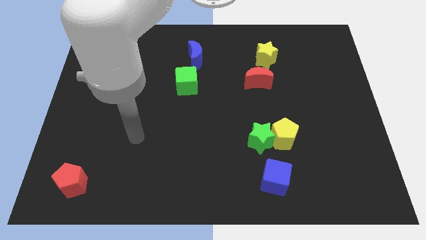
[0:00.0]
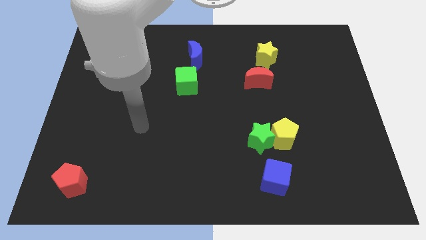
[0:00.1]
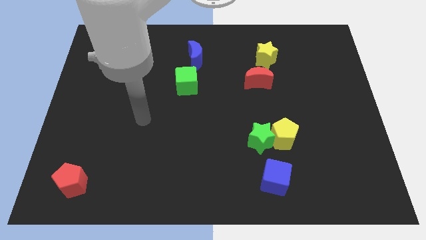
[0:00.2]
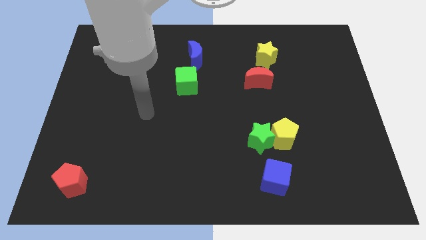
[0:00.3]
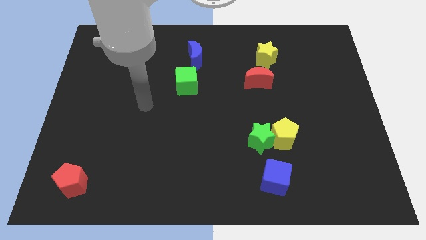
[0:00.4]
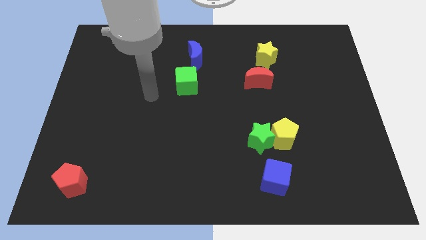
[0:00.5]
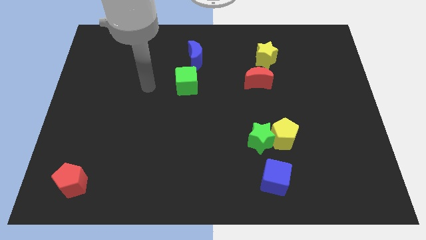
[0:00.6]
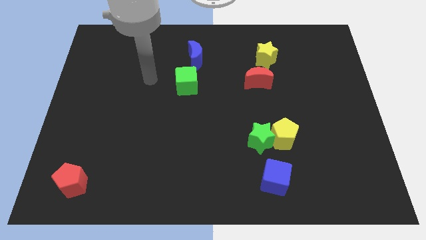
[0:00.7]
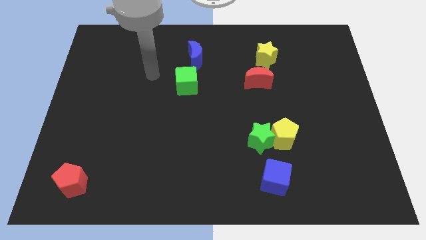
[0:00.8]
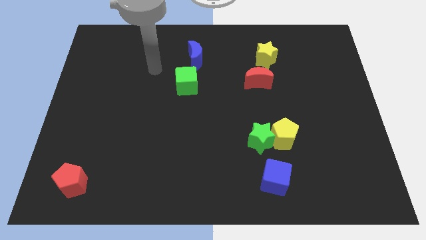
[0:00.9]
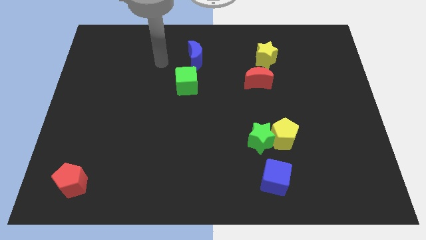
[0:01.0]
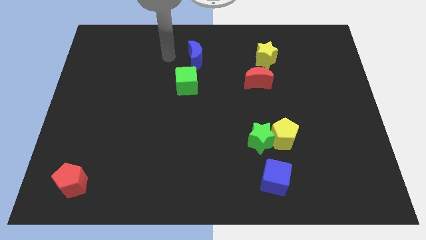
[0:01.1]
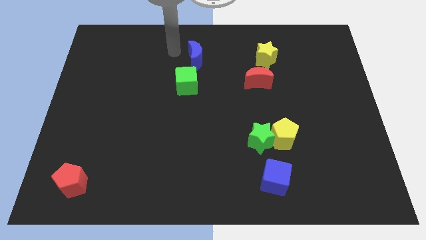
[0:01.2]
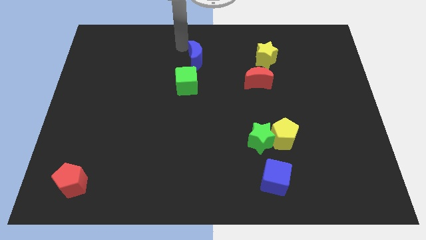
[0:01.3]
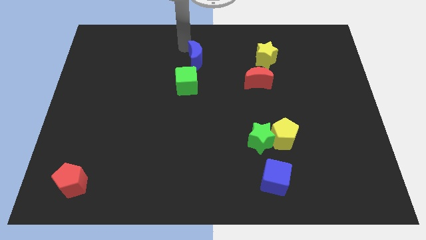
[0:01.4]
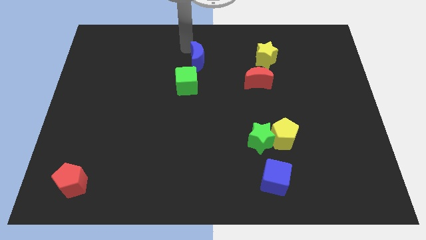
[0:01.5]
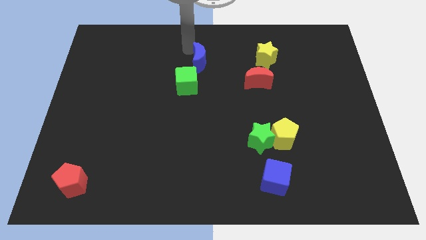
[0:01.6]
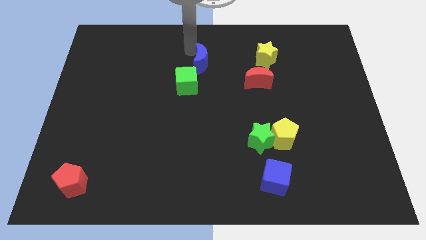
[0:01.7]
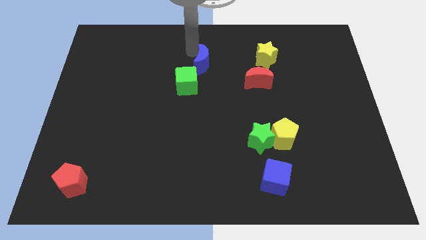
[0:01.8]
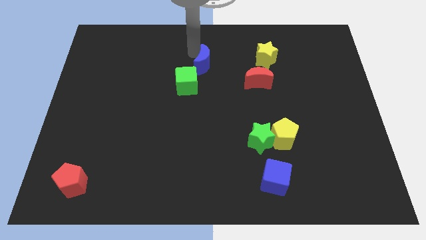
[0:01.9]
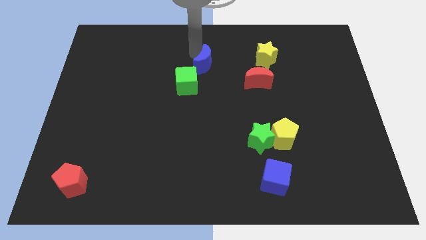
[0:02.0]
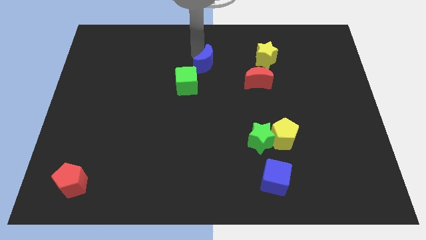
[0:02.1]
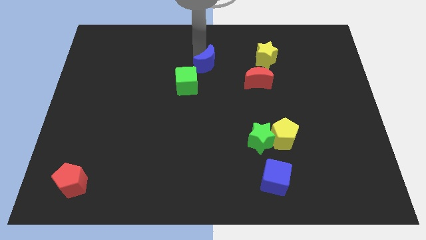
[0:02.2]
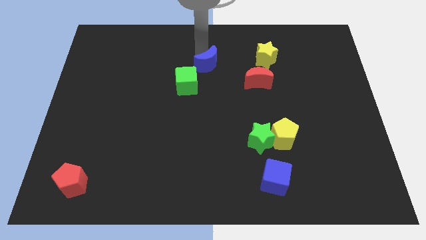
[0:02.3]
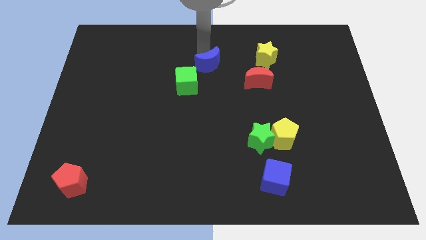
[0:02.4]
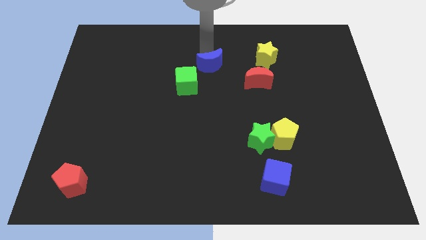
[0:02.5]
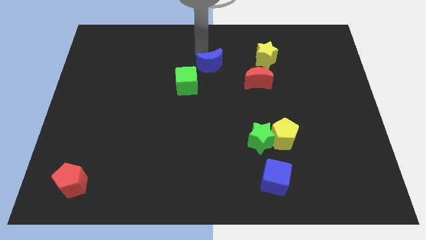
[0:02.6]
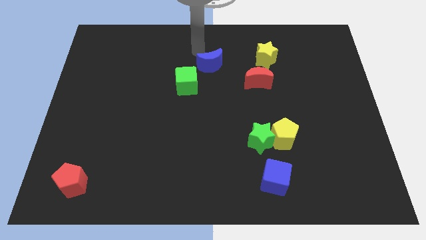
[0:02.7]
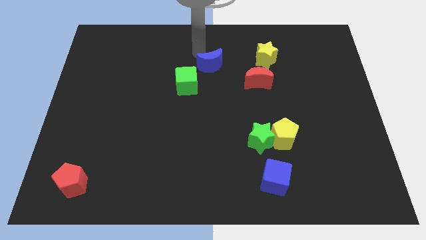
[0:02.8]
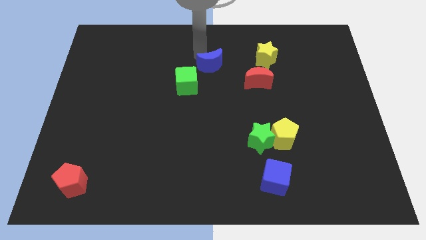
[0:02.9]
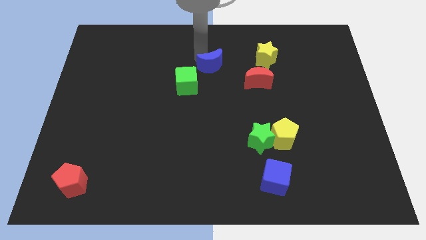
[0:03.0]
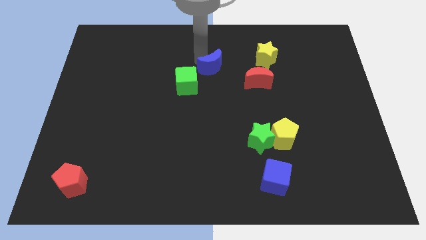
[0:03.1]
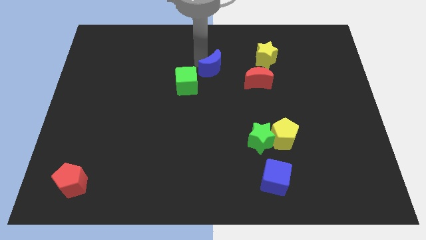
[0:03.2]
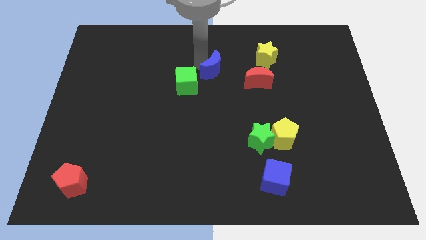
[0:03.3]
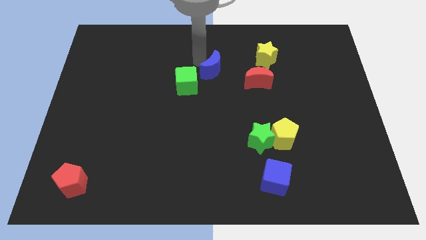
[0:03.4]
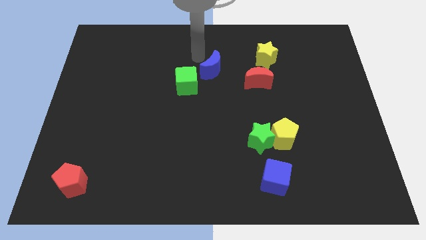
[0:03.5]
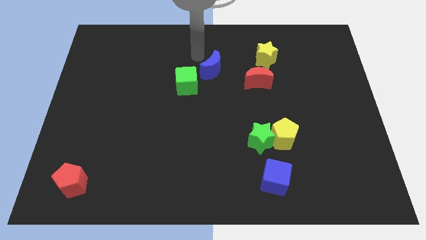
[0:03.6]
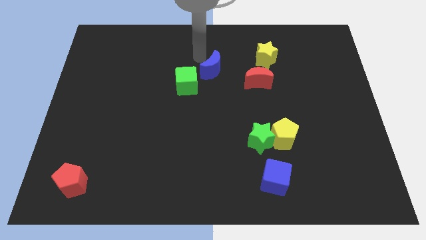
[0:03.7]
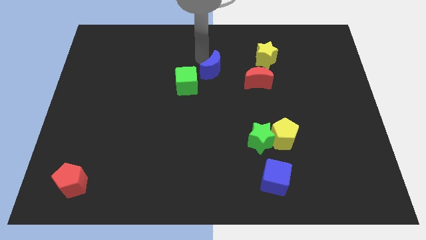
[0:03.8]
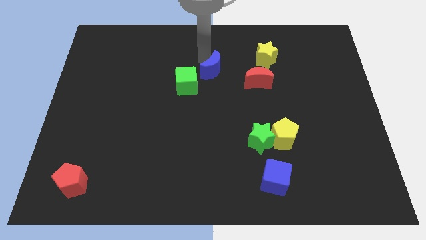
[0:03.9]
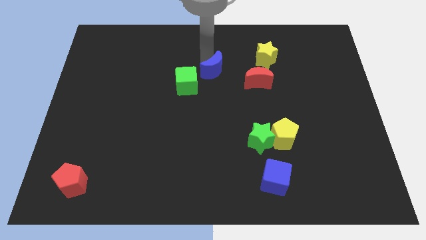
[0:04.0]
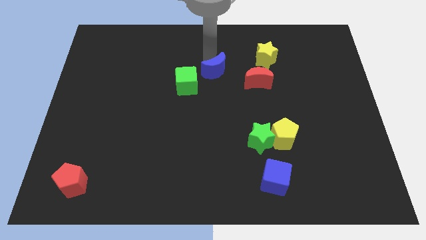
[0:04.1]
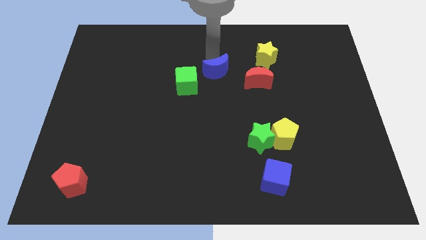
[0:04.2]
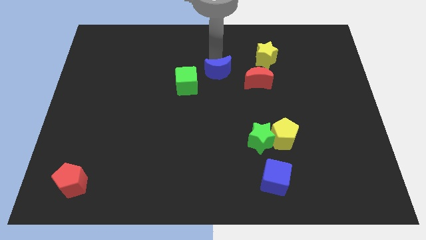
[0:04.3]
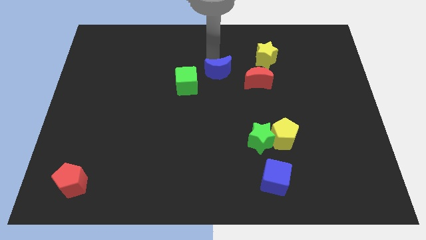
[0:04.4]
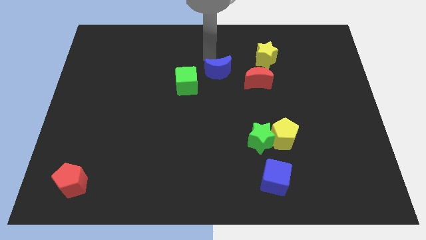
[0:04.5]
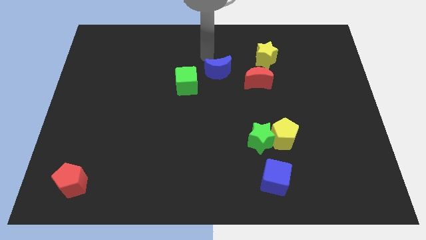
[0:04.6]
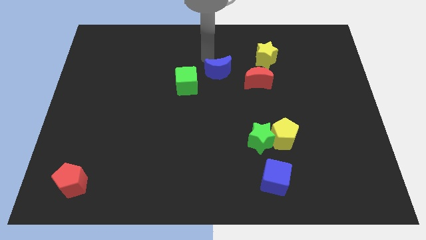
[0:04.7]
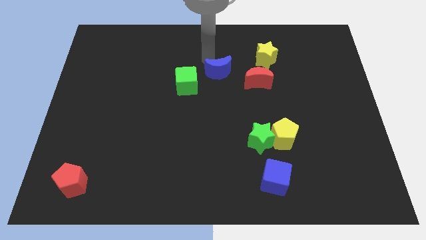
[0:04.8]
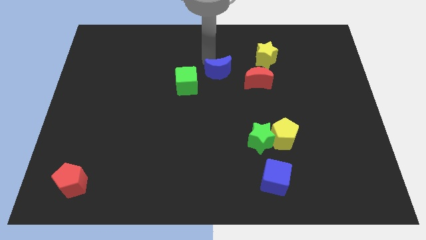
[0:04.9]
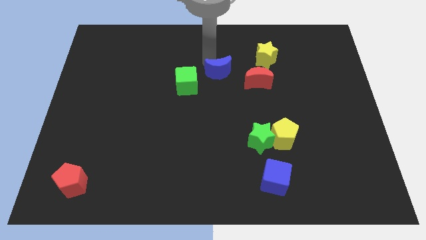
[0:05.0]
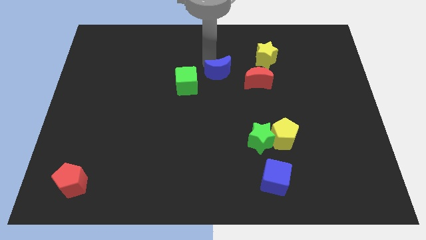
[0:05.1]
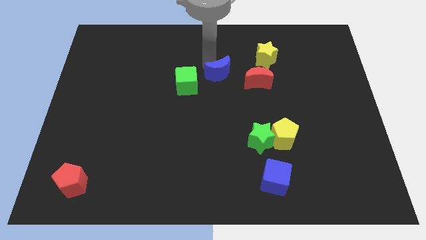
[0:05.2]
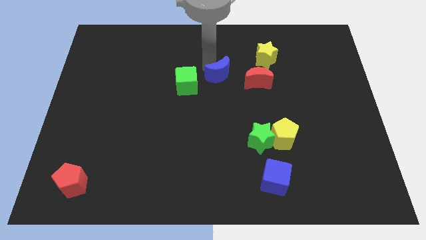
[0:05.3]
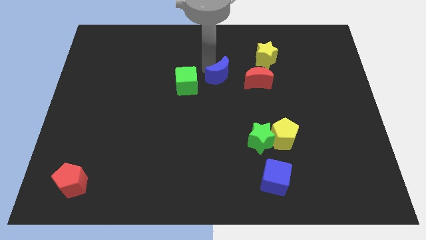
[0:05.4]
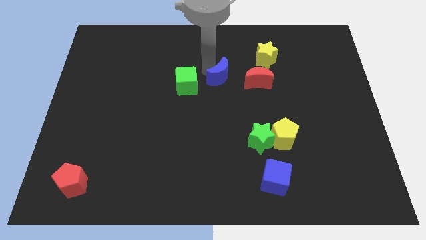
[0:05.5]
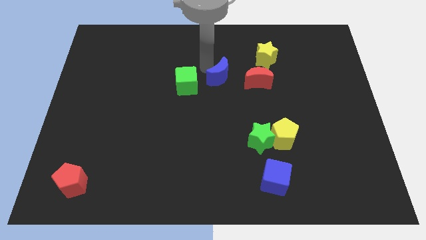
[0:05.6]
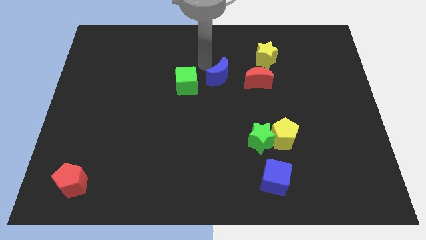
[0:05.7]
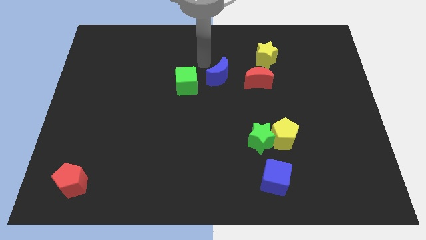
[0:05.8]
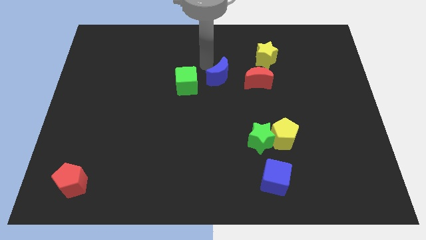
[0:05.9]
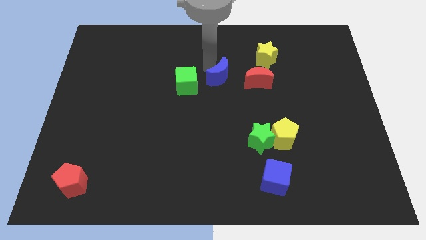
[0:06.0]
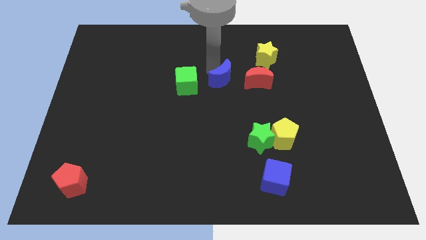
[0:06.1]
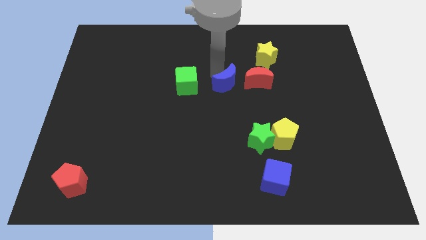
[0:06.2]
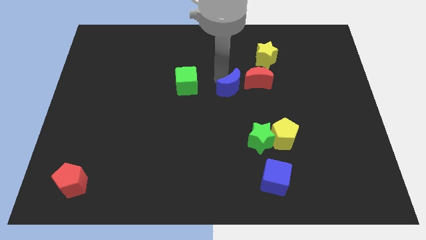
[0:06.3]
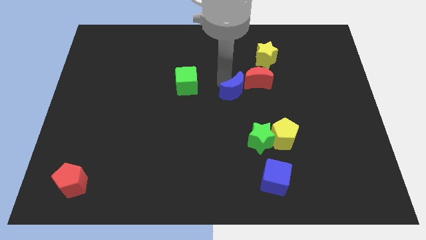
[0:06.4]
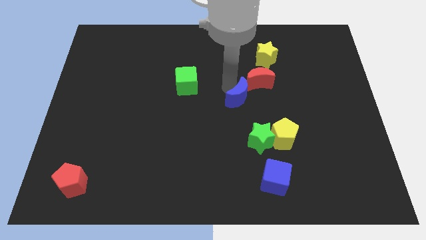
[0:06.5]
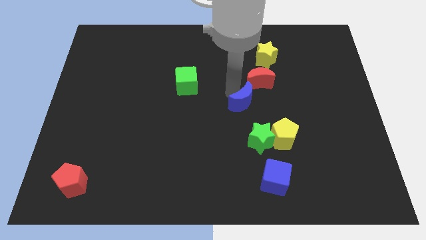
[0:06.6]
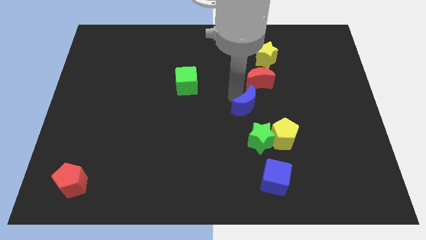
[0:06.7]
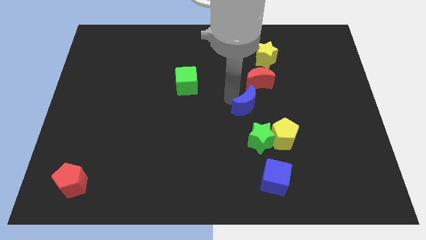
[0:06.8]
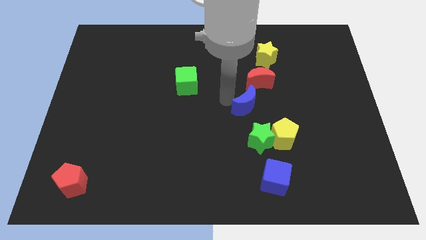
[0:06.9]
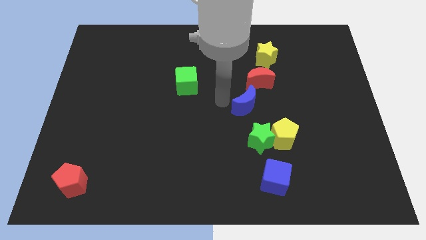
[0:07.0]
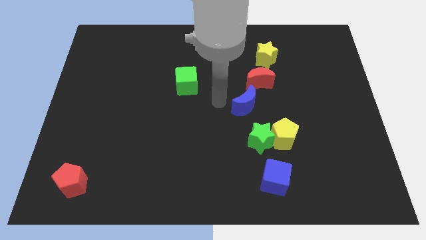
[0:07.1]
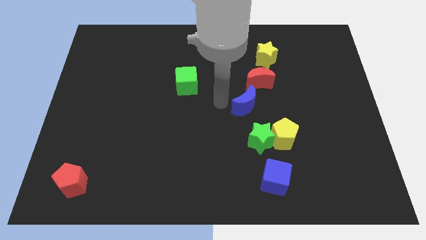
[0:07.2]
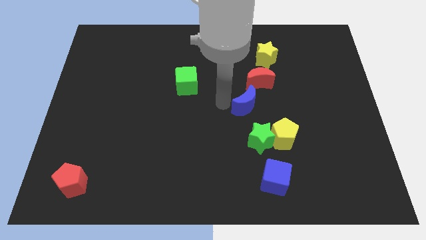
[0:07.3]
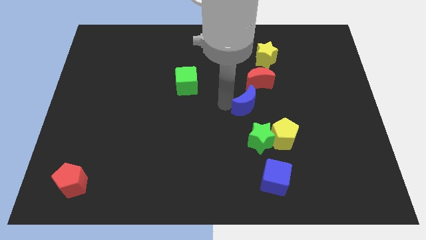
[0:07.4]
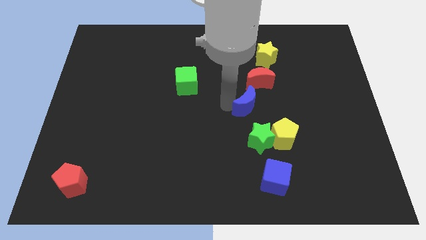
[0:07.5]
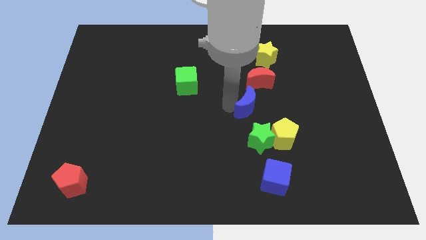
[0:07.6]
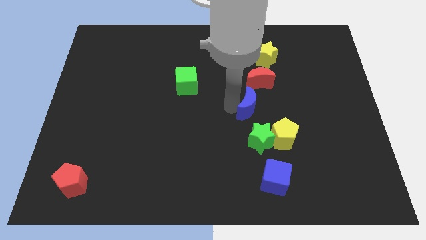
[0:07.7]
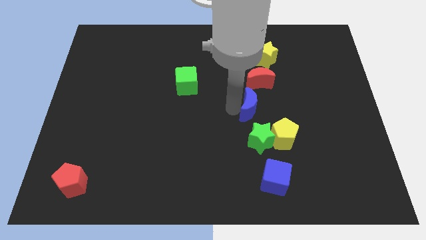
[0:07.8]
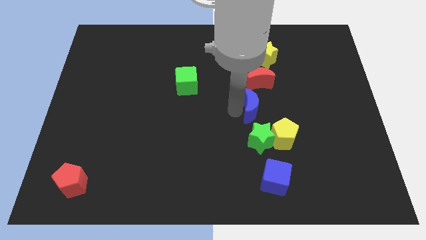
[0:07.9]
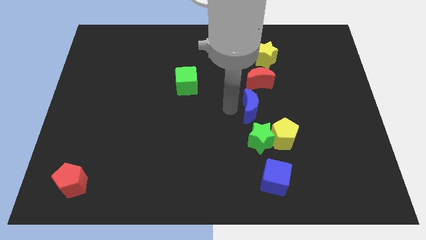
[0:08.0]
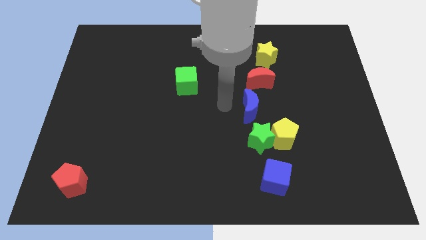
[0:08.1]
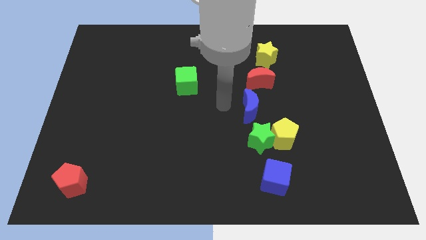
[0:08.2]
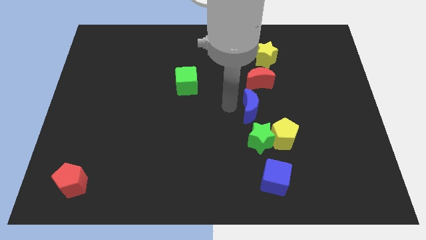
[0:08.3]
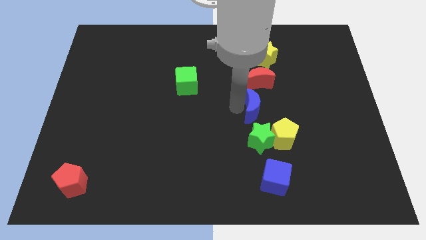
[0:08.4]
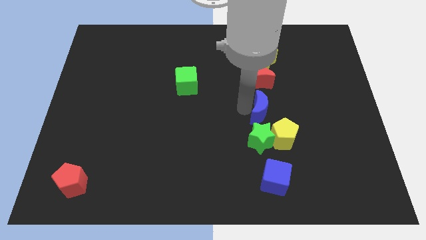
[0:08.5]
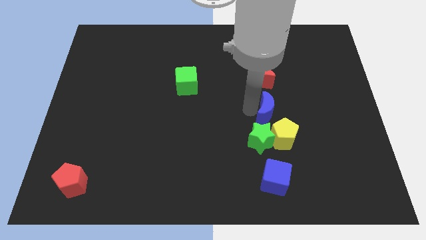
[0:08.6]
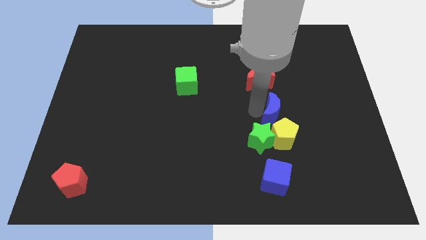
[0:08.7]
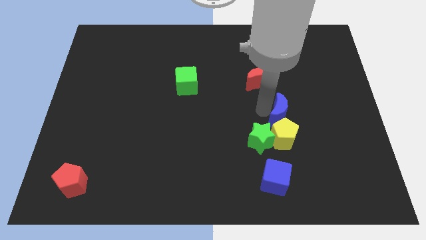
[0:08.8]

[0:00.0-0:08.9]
move the blue moon close to the yellow pentagon
